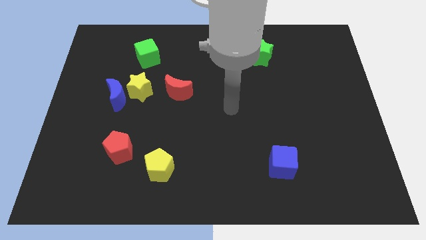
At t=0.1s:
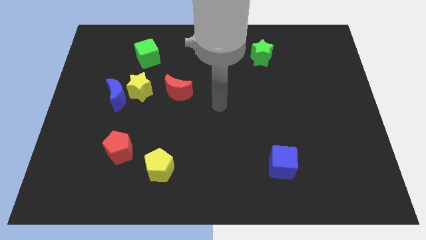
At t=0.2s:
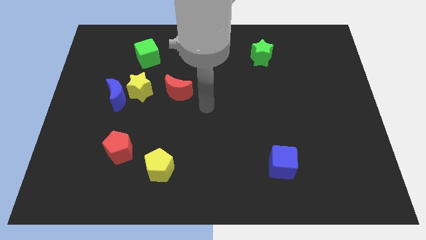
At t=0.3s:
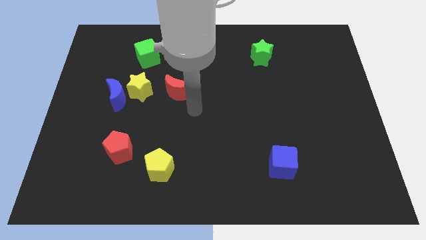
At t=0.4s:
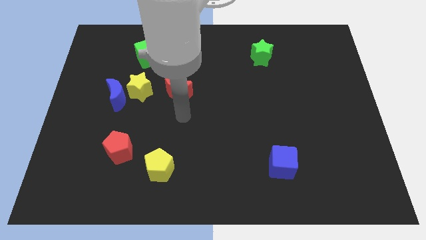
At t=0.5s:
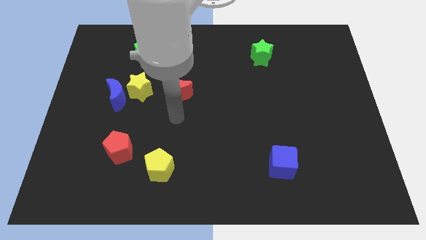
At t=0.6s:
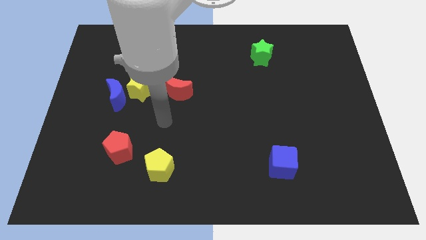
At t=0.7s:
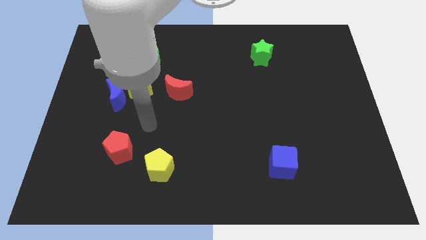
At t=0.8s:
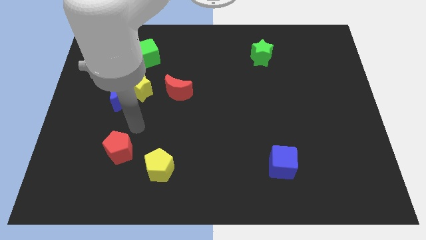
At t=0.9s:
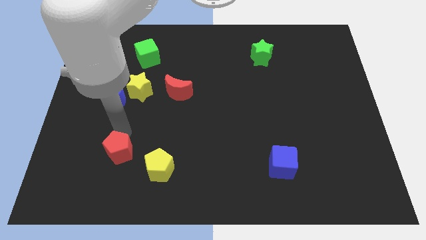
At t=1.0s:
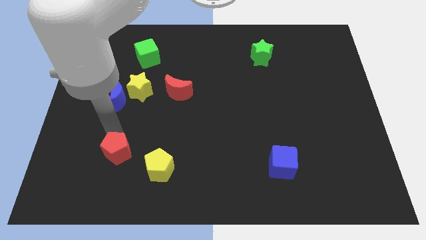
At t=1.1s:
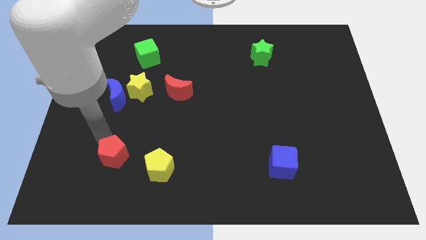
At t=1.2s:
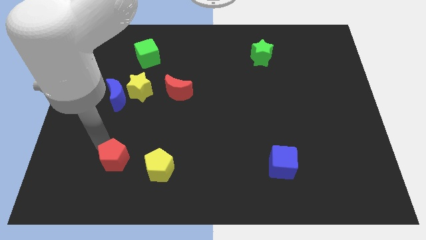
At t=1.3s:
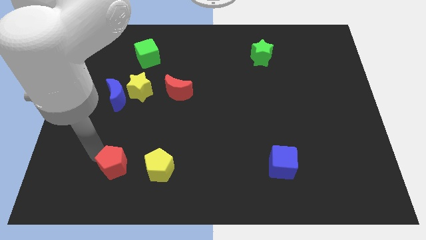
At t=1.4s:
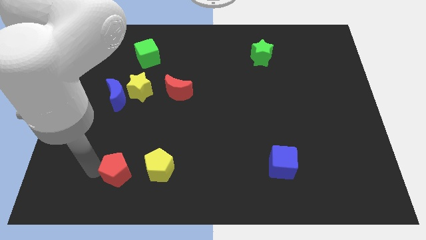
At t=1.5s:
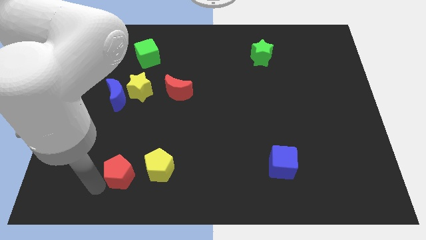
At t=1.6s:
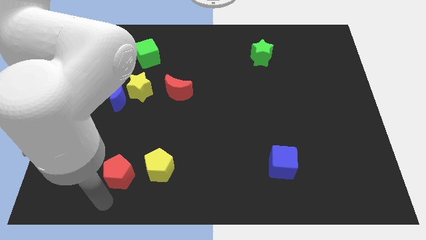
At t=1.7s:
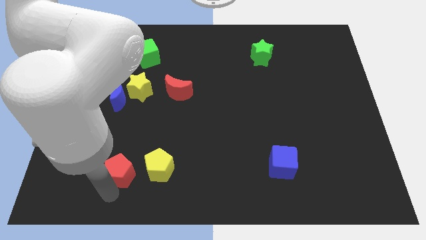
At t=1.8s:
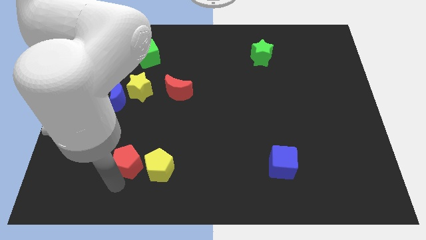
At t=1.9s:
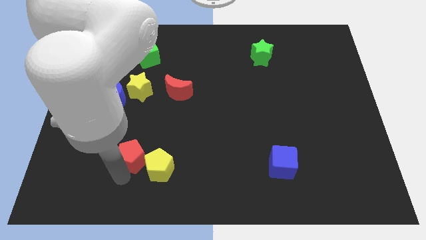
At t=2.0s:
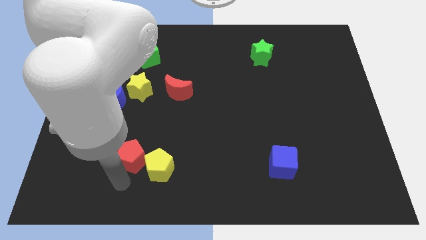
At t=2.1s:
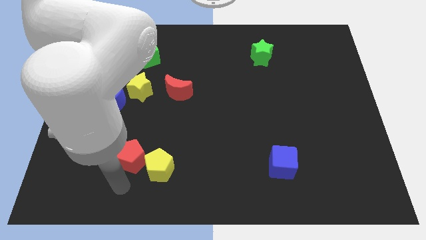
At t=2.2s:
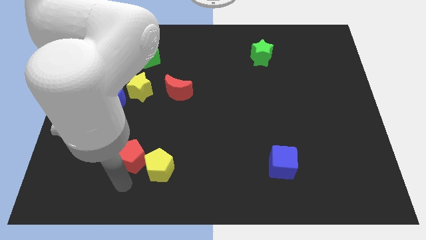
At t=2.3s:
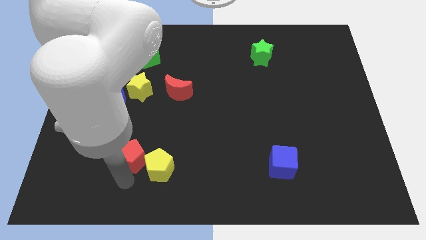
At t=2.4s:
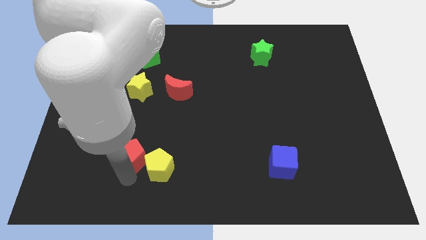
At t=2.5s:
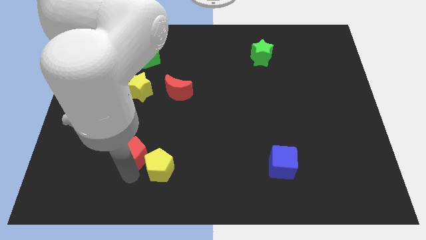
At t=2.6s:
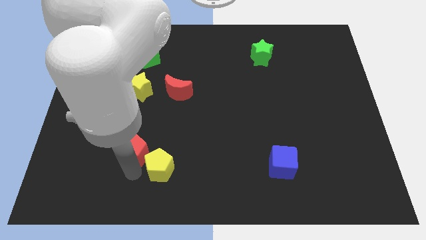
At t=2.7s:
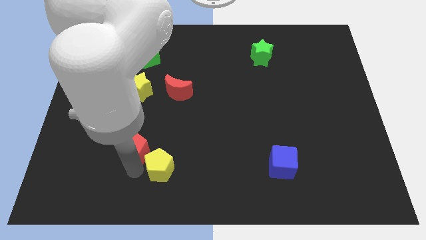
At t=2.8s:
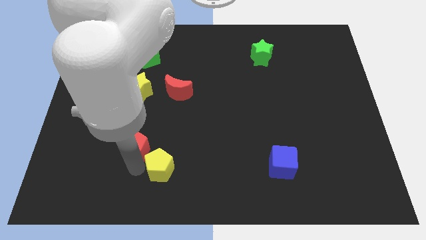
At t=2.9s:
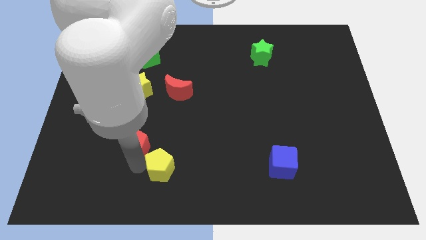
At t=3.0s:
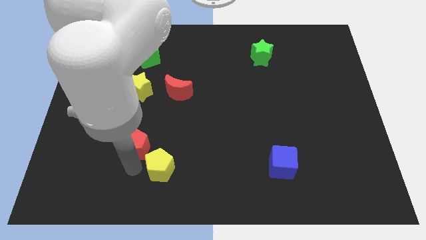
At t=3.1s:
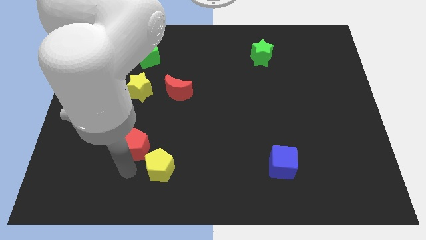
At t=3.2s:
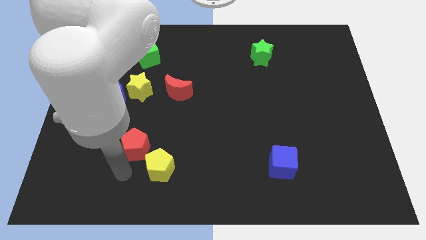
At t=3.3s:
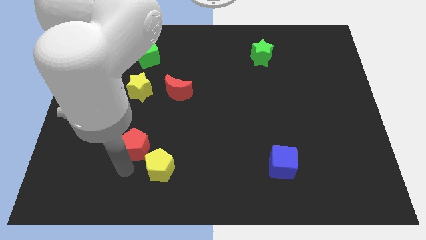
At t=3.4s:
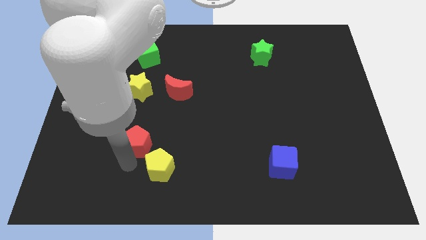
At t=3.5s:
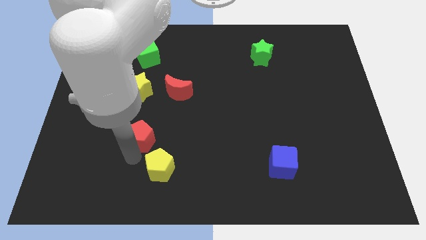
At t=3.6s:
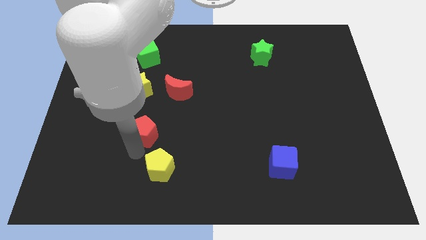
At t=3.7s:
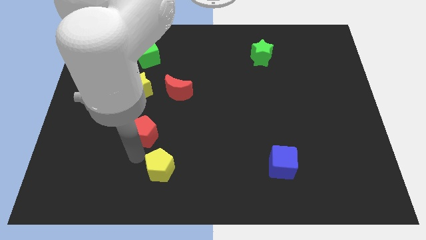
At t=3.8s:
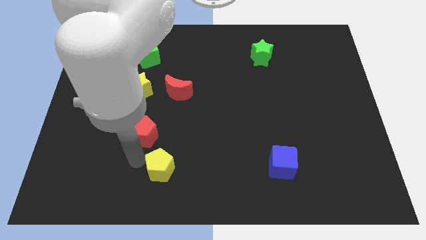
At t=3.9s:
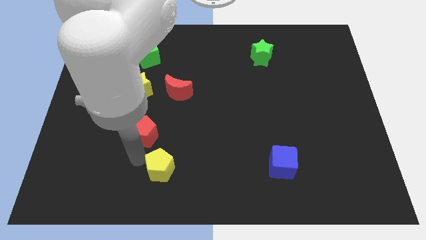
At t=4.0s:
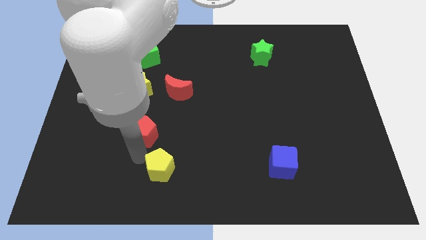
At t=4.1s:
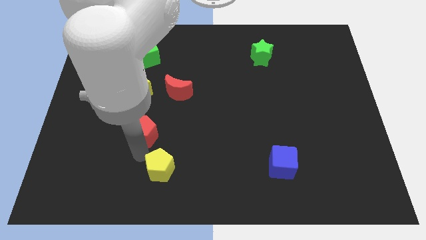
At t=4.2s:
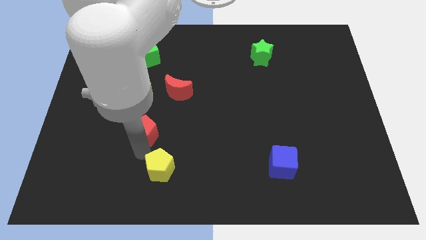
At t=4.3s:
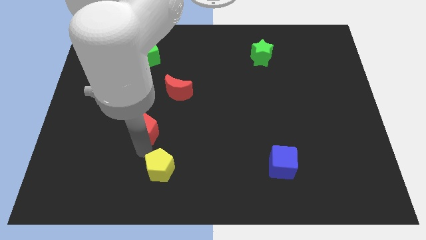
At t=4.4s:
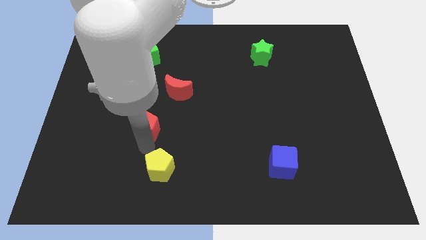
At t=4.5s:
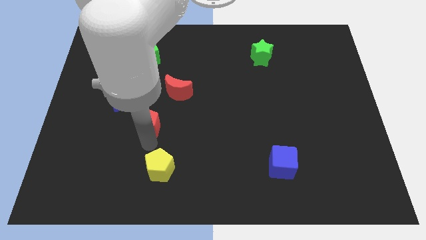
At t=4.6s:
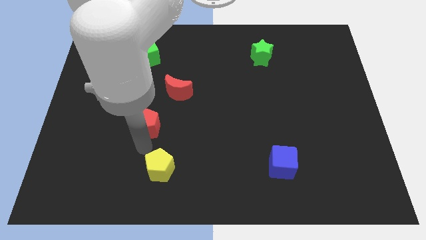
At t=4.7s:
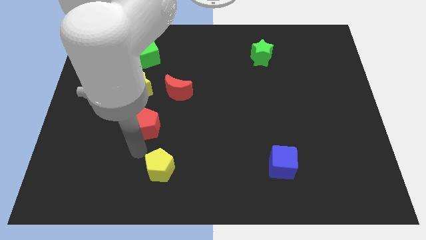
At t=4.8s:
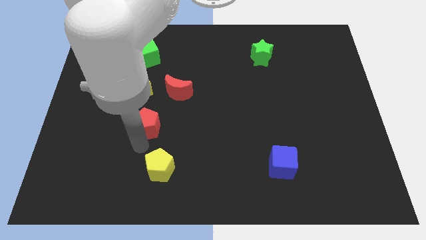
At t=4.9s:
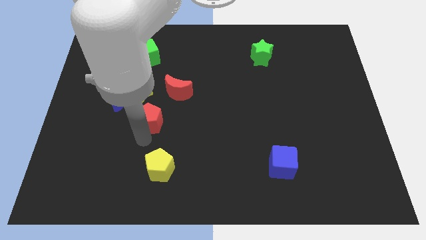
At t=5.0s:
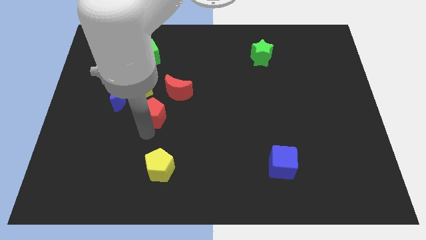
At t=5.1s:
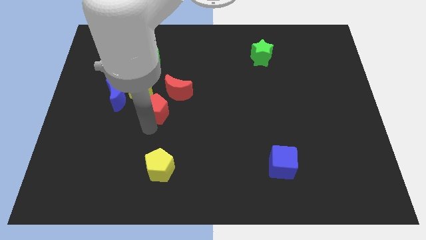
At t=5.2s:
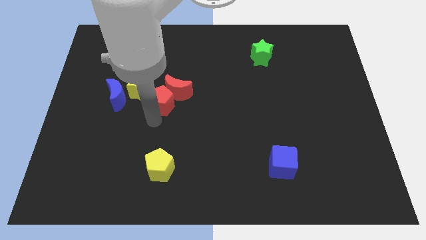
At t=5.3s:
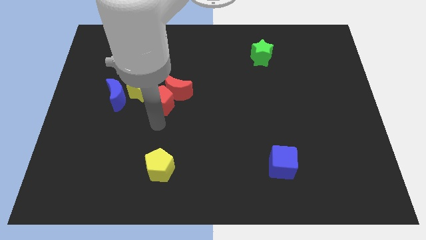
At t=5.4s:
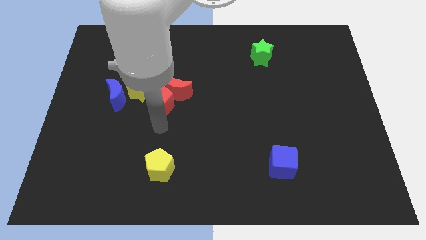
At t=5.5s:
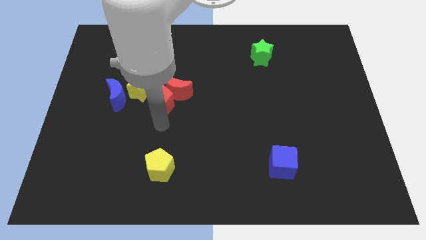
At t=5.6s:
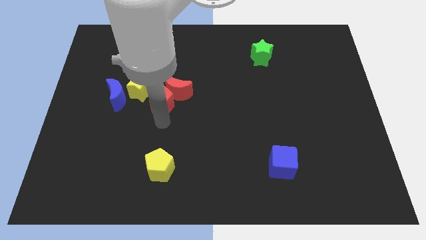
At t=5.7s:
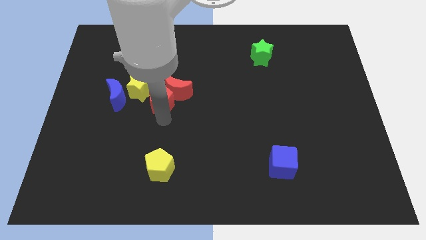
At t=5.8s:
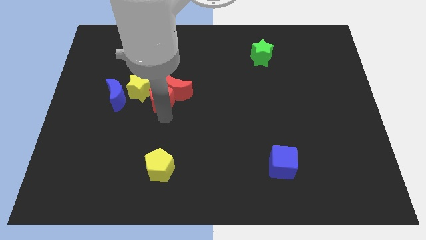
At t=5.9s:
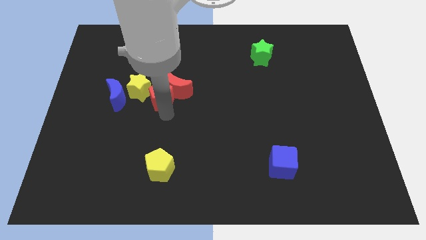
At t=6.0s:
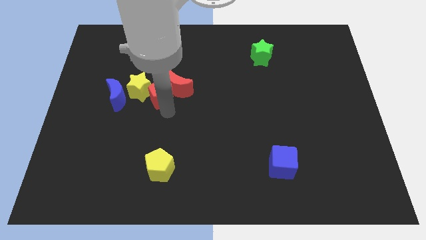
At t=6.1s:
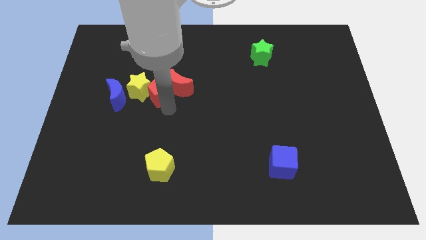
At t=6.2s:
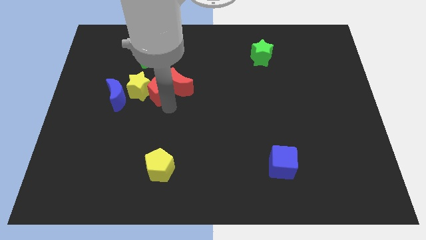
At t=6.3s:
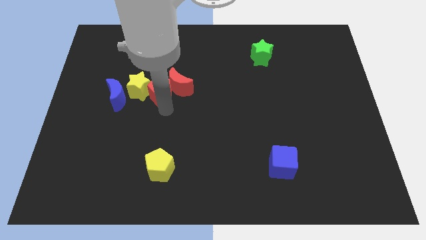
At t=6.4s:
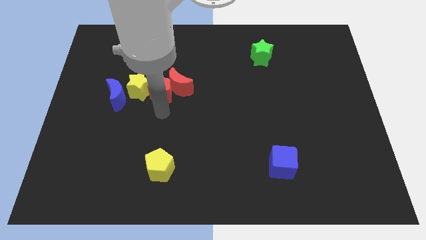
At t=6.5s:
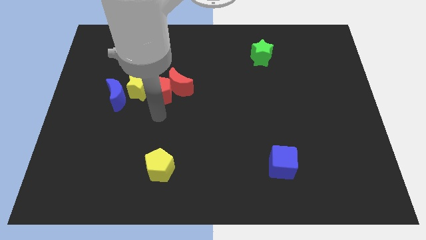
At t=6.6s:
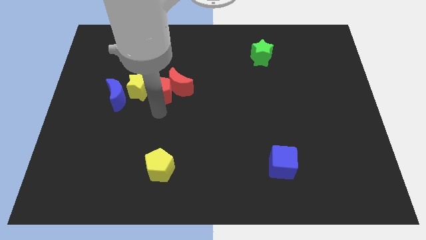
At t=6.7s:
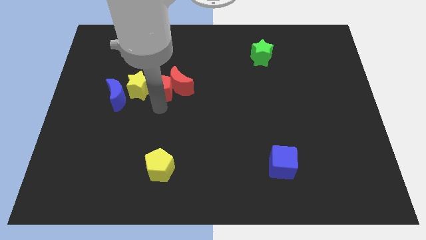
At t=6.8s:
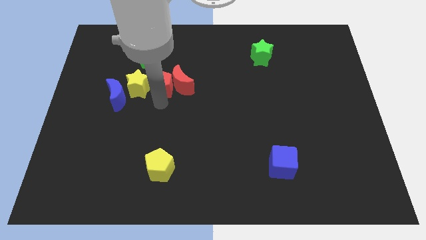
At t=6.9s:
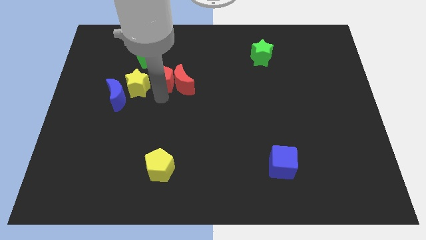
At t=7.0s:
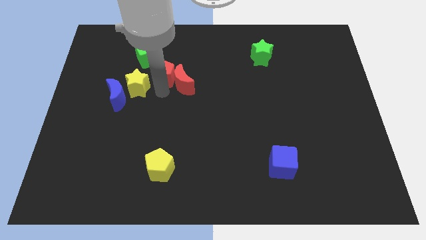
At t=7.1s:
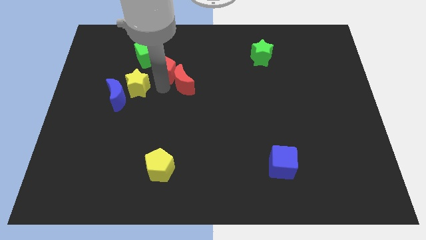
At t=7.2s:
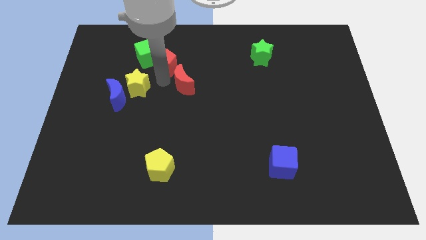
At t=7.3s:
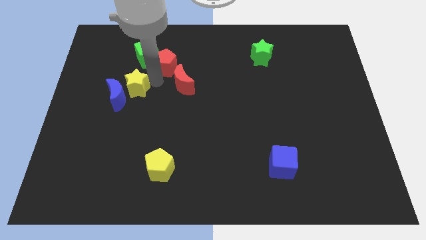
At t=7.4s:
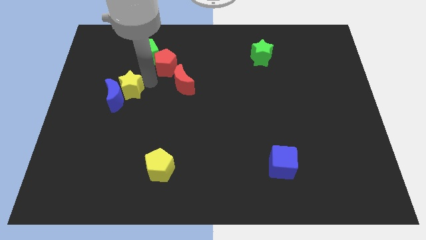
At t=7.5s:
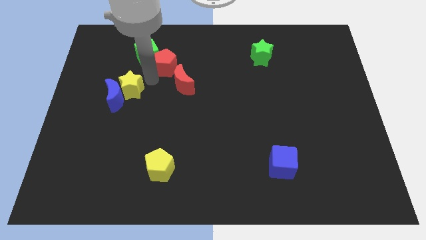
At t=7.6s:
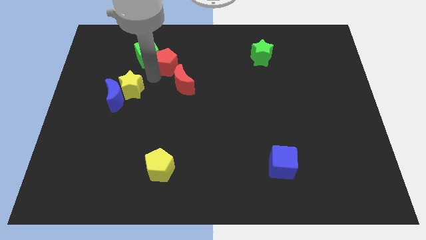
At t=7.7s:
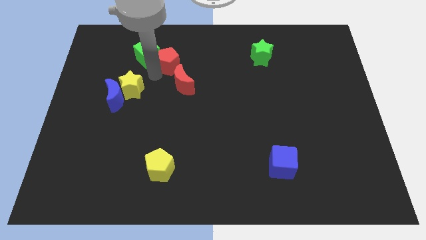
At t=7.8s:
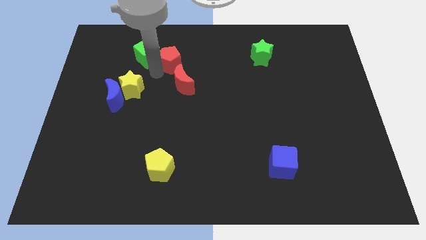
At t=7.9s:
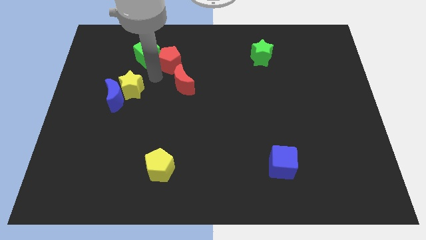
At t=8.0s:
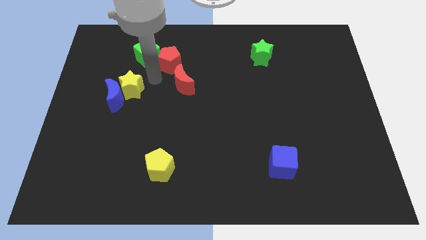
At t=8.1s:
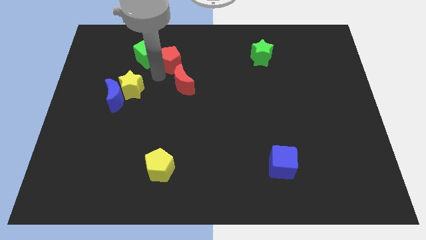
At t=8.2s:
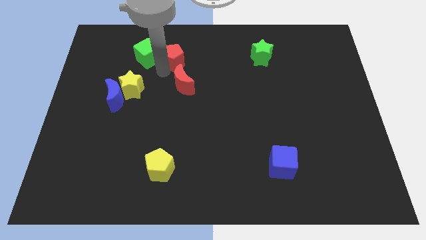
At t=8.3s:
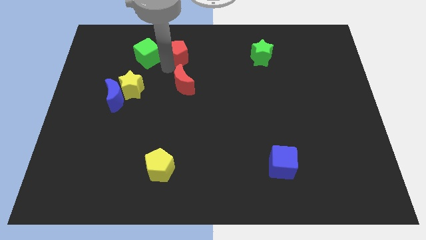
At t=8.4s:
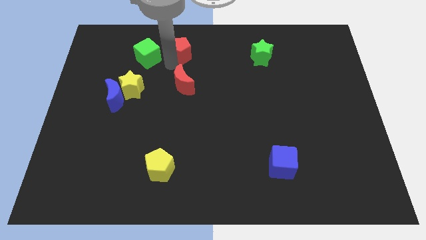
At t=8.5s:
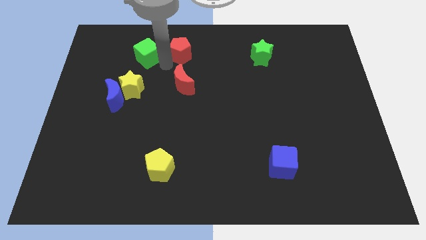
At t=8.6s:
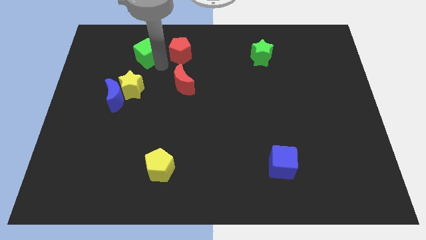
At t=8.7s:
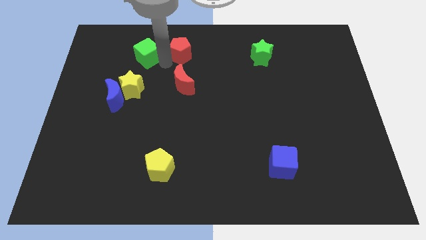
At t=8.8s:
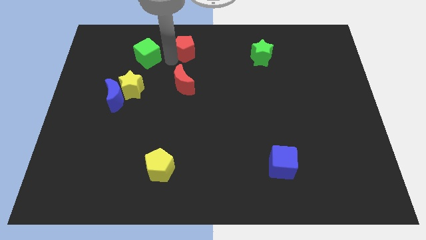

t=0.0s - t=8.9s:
move the red pentagon to the towards your base
